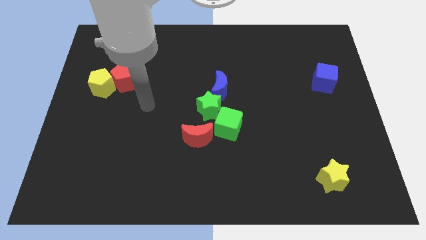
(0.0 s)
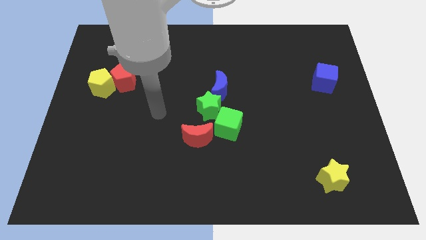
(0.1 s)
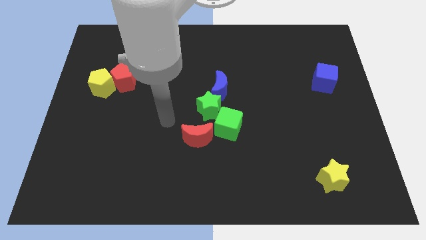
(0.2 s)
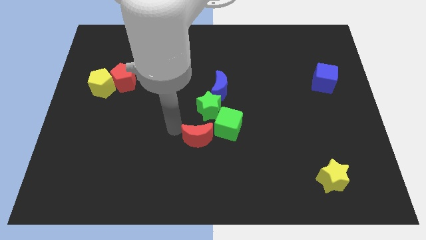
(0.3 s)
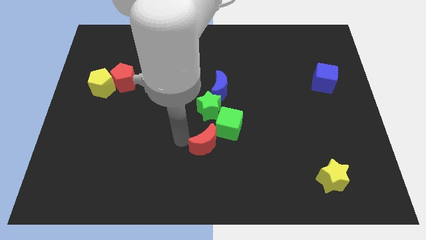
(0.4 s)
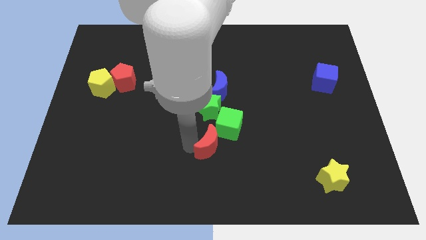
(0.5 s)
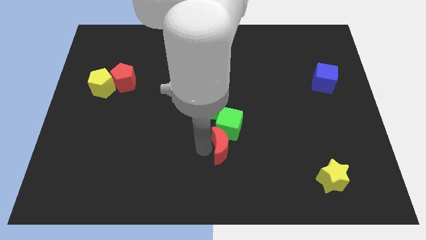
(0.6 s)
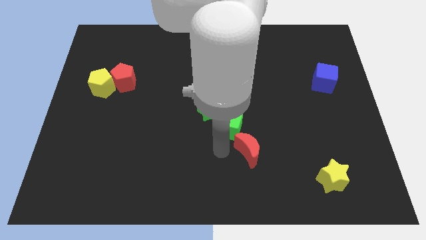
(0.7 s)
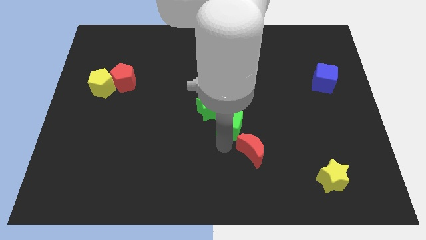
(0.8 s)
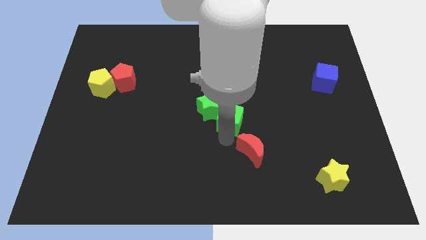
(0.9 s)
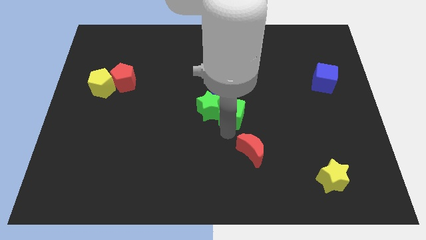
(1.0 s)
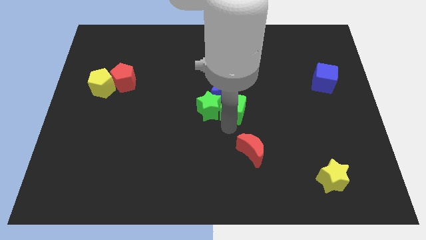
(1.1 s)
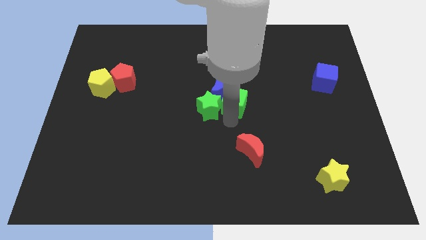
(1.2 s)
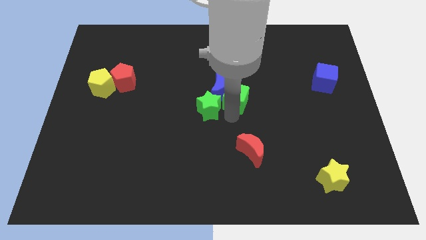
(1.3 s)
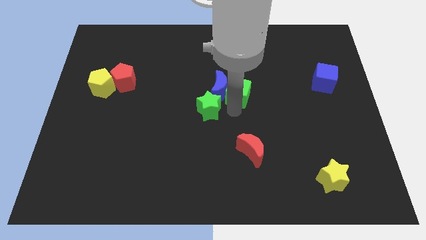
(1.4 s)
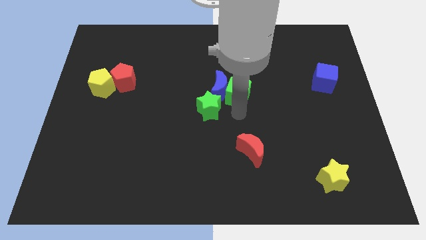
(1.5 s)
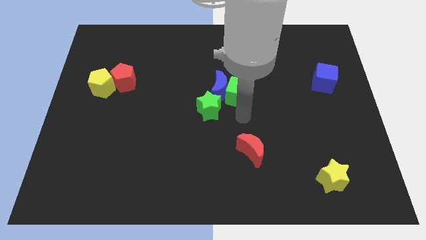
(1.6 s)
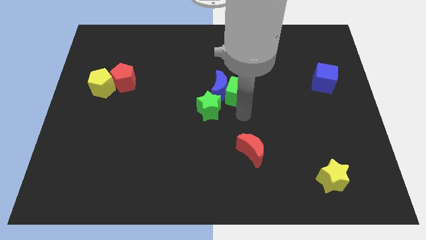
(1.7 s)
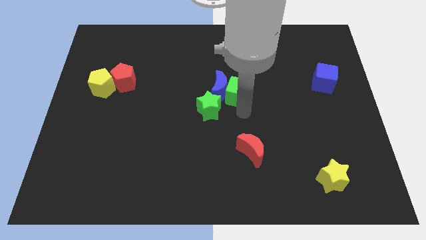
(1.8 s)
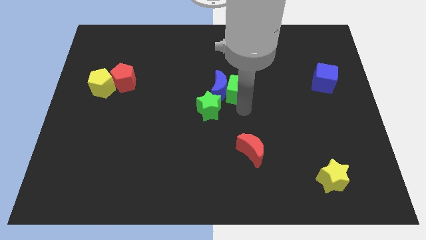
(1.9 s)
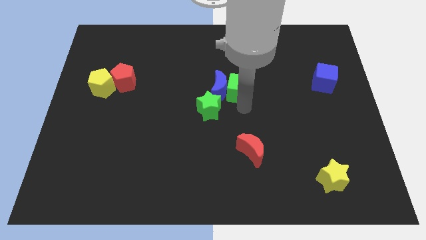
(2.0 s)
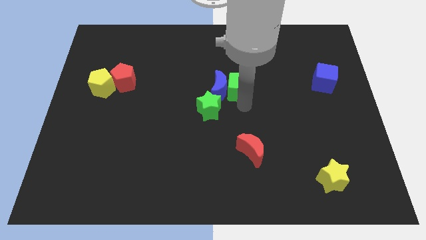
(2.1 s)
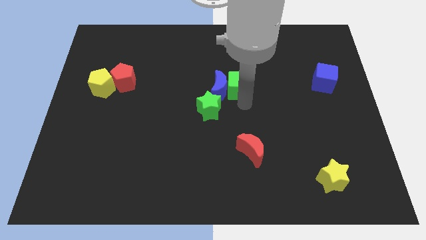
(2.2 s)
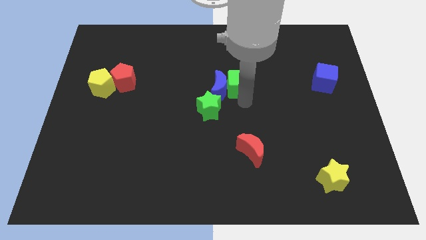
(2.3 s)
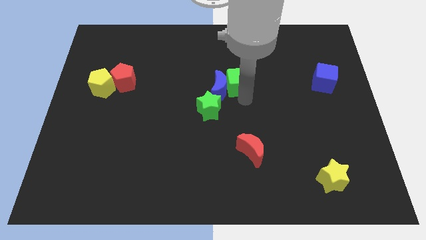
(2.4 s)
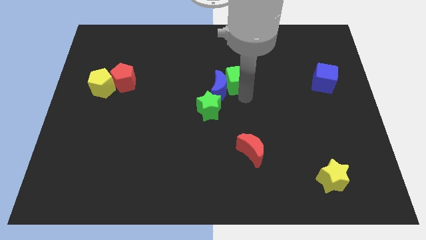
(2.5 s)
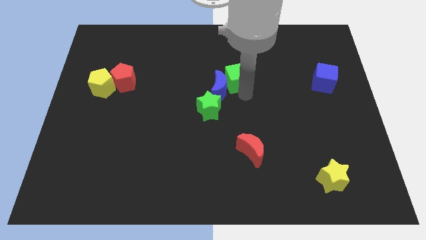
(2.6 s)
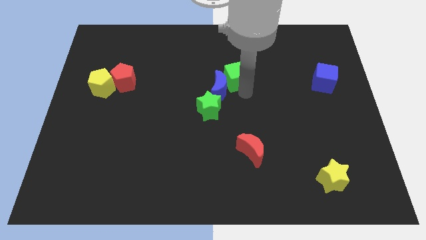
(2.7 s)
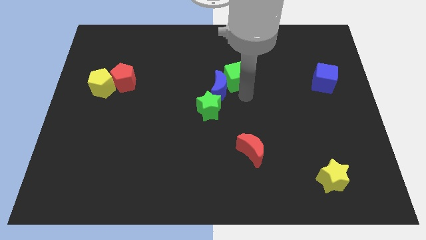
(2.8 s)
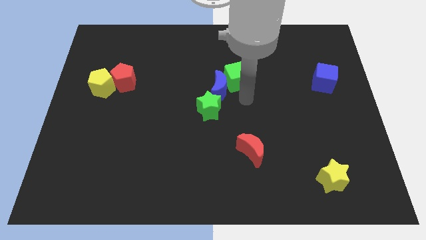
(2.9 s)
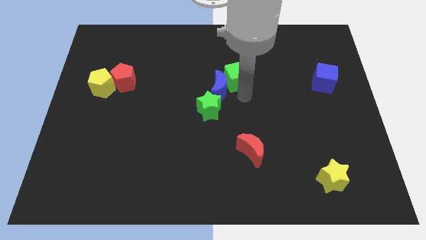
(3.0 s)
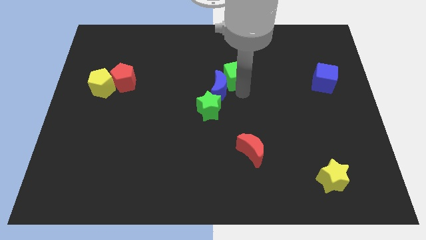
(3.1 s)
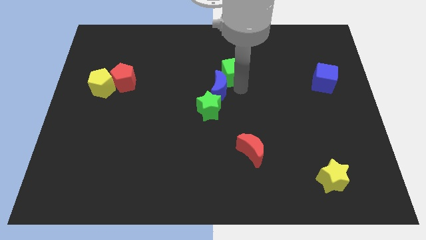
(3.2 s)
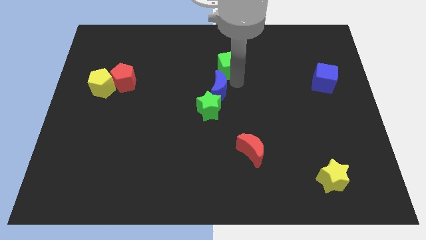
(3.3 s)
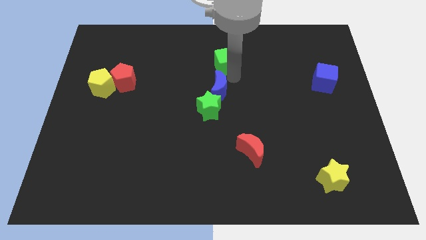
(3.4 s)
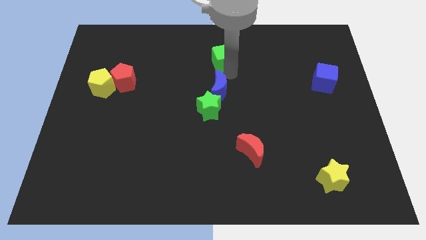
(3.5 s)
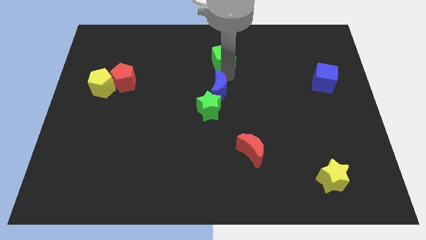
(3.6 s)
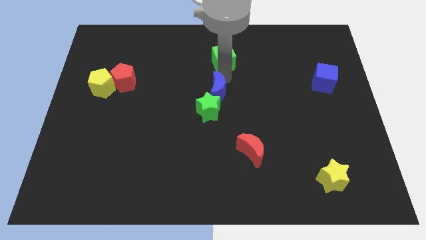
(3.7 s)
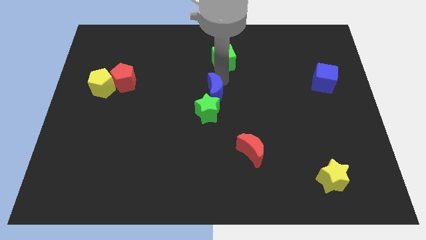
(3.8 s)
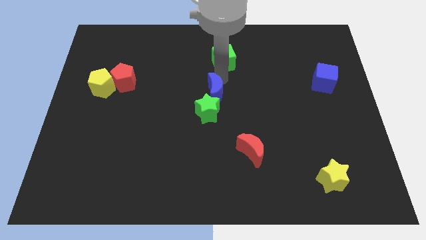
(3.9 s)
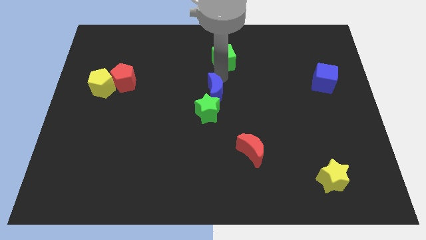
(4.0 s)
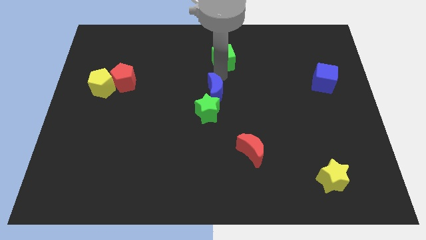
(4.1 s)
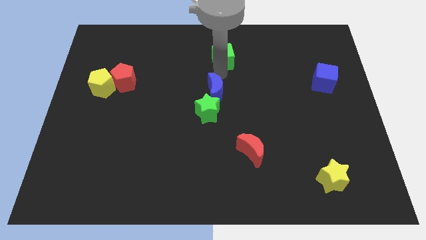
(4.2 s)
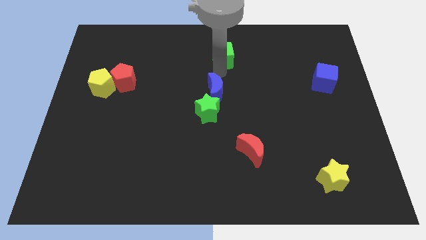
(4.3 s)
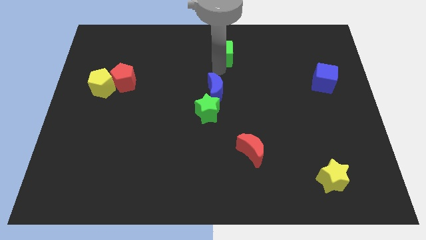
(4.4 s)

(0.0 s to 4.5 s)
push the green cube to the top side

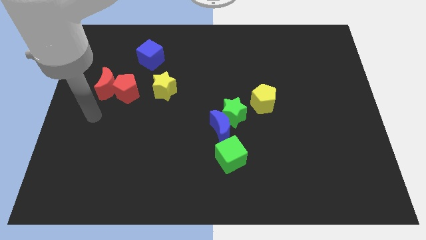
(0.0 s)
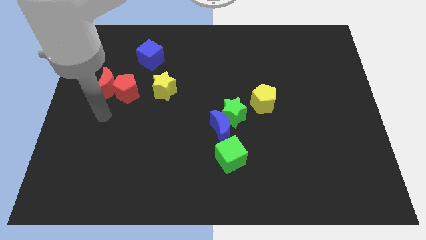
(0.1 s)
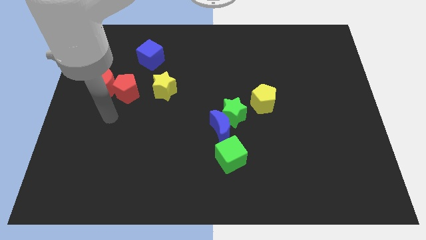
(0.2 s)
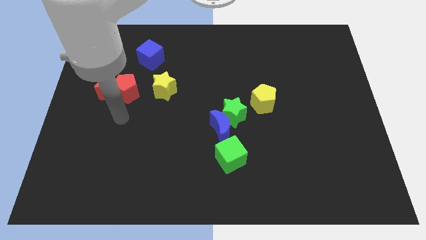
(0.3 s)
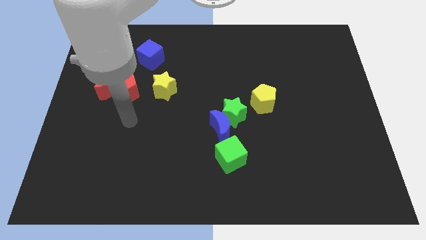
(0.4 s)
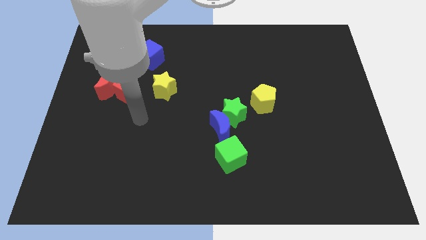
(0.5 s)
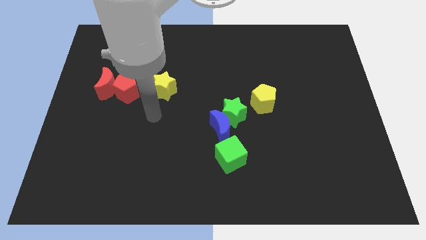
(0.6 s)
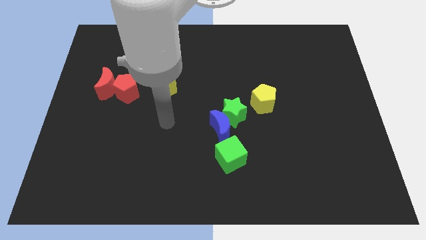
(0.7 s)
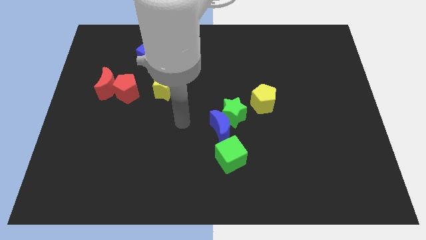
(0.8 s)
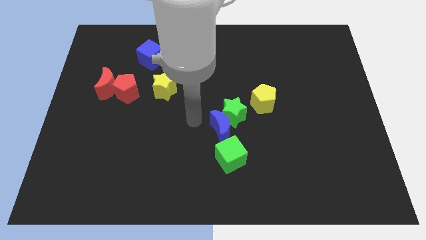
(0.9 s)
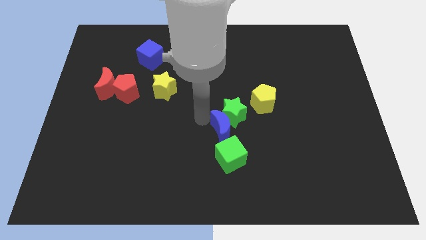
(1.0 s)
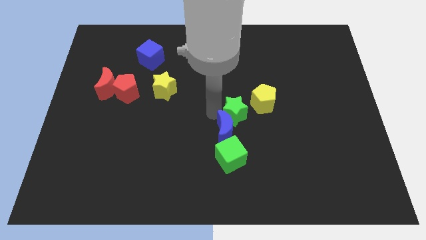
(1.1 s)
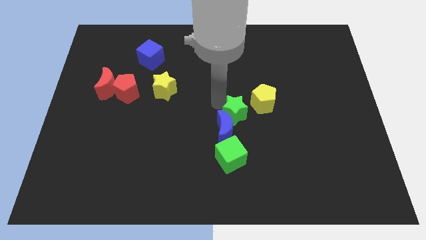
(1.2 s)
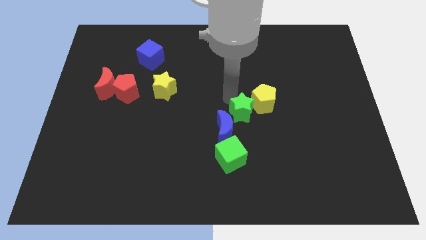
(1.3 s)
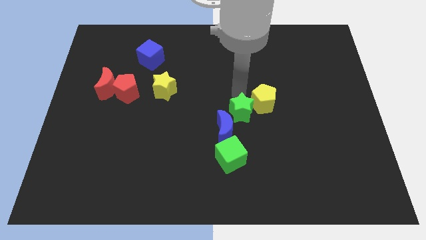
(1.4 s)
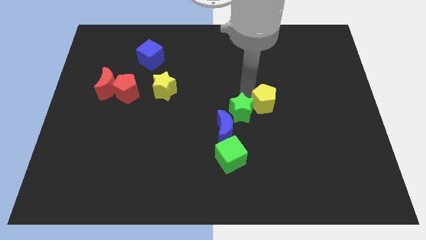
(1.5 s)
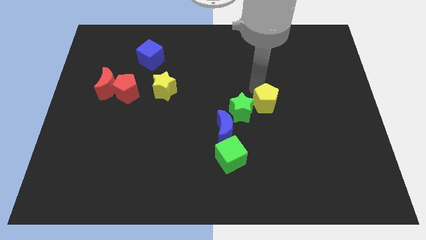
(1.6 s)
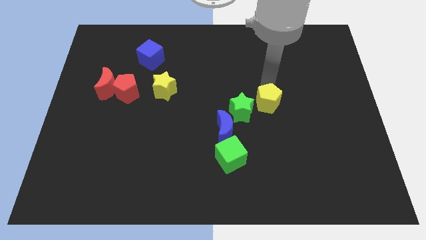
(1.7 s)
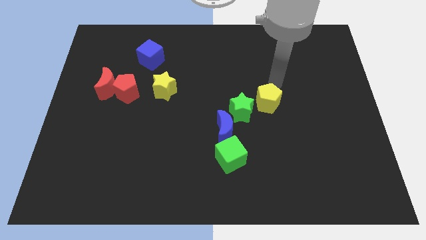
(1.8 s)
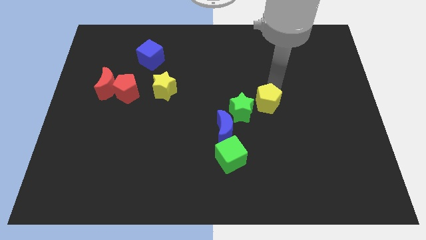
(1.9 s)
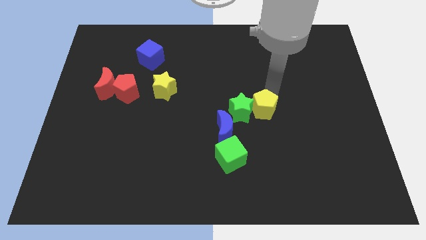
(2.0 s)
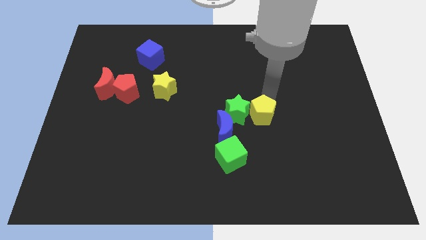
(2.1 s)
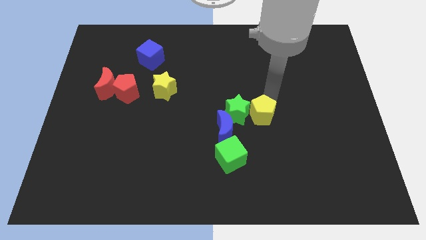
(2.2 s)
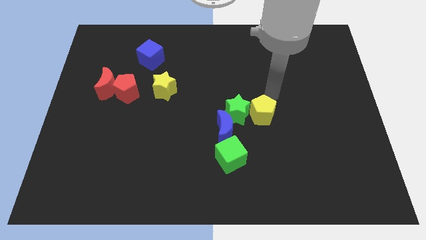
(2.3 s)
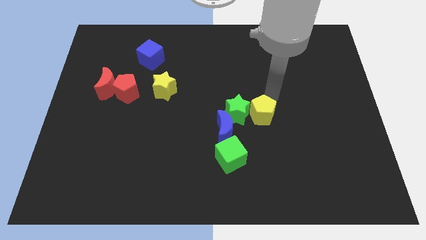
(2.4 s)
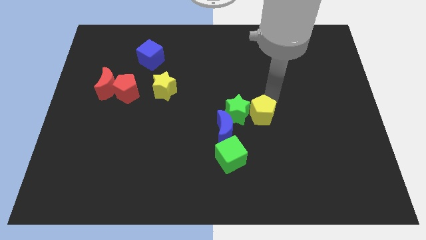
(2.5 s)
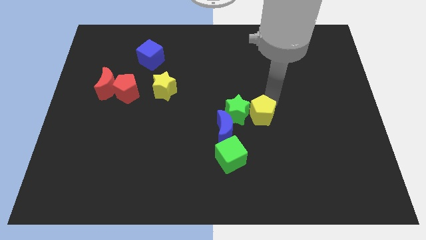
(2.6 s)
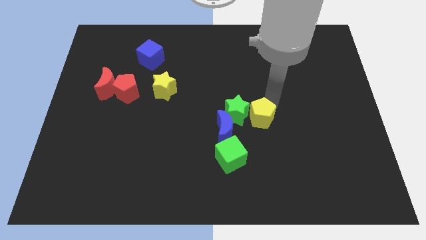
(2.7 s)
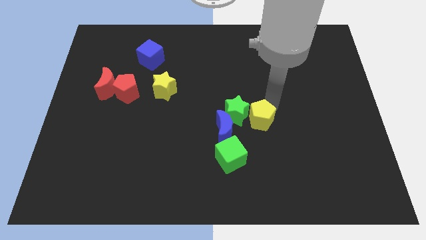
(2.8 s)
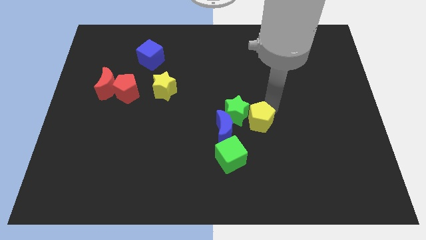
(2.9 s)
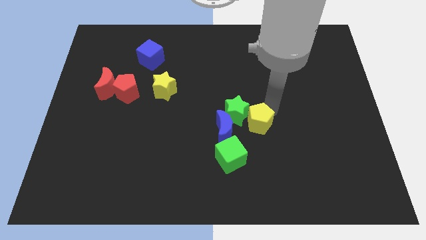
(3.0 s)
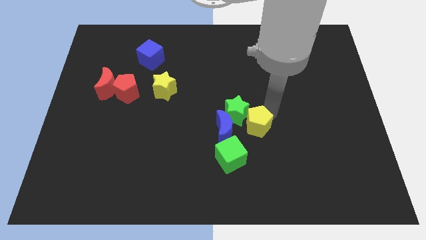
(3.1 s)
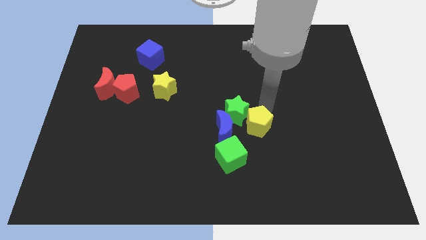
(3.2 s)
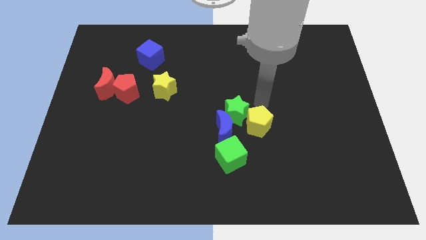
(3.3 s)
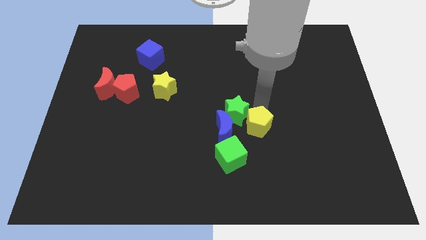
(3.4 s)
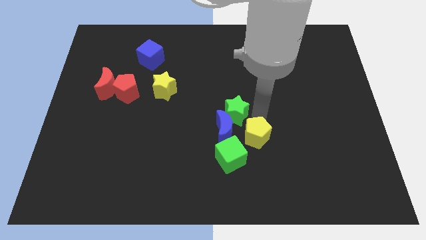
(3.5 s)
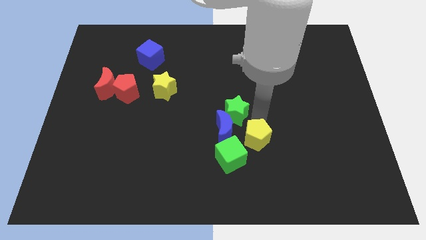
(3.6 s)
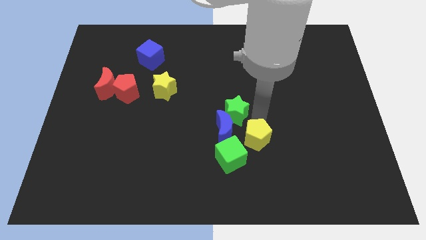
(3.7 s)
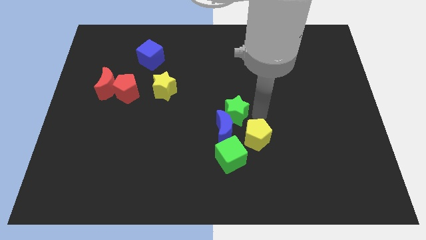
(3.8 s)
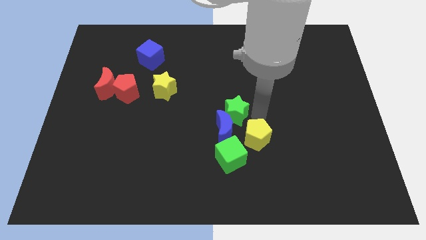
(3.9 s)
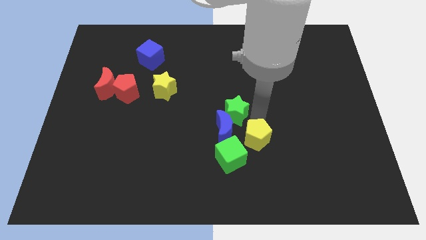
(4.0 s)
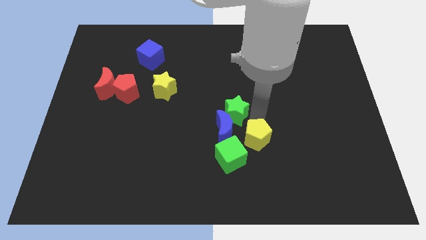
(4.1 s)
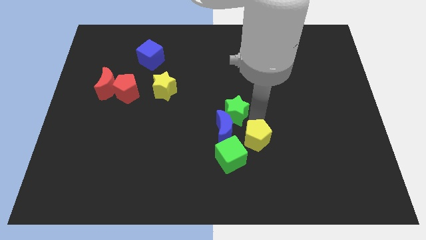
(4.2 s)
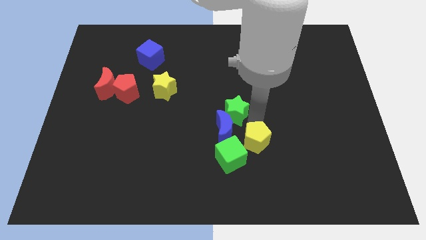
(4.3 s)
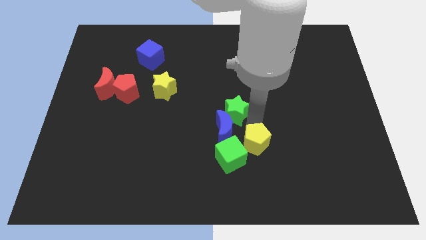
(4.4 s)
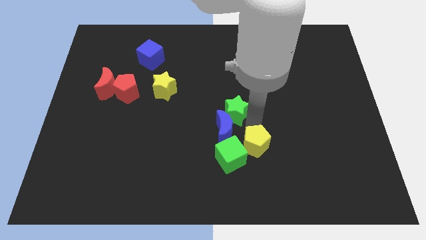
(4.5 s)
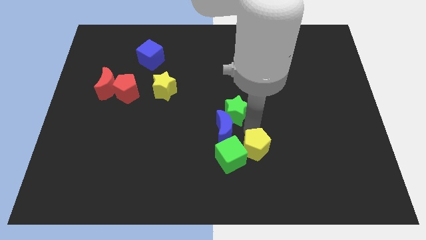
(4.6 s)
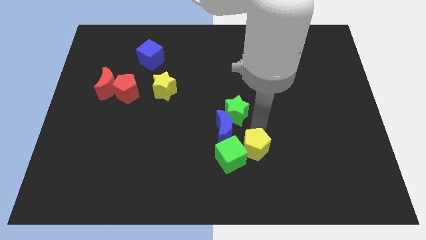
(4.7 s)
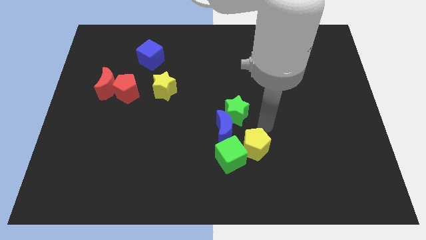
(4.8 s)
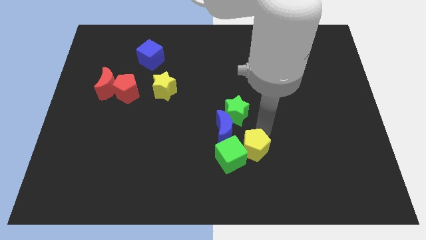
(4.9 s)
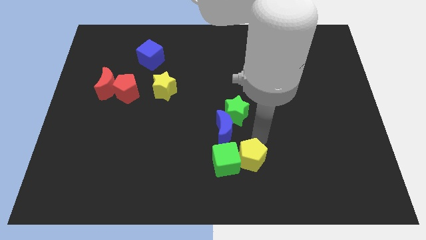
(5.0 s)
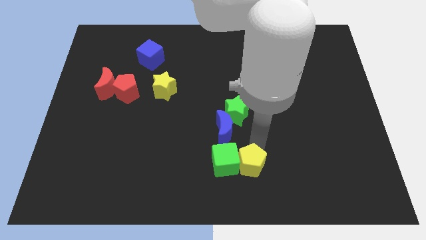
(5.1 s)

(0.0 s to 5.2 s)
put the yellow pentagon to the bottom
